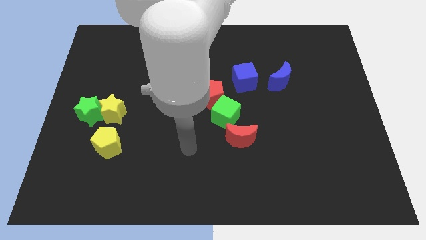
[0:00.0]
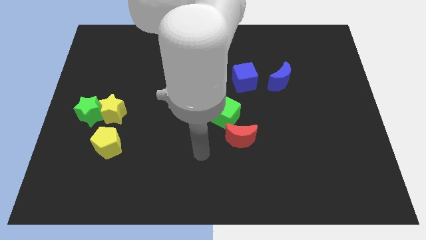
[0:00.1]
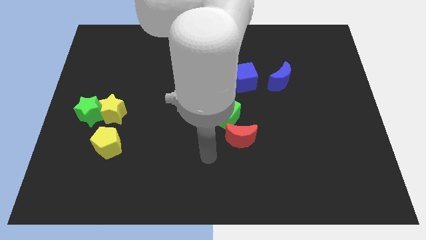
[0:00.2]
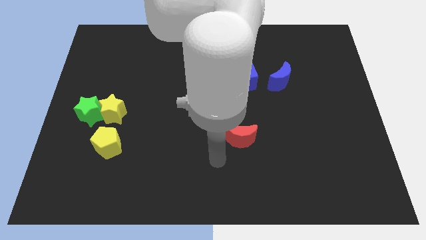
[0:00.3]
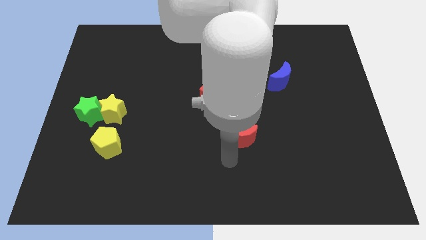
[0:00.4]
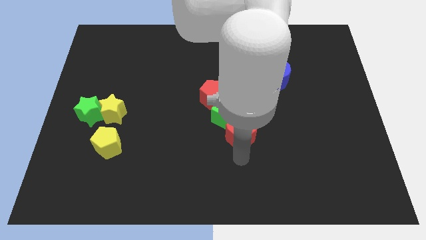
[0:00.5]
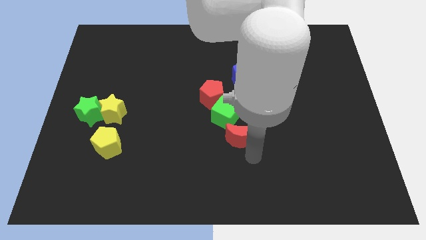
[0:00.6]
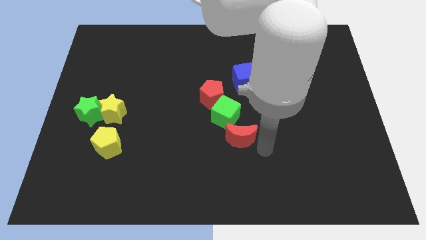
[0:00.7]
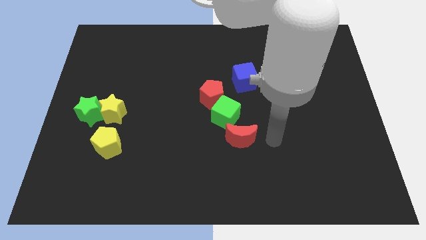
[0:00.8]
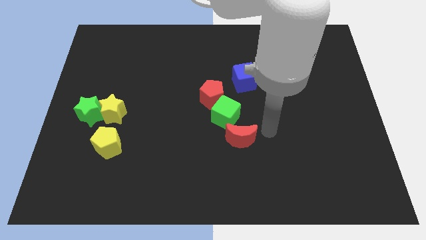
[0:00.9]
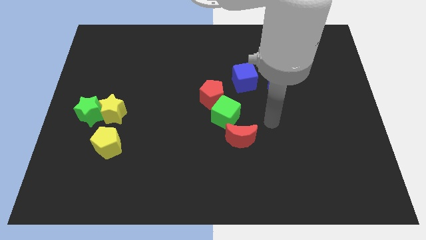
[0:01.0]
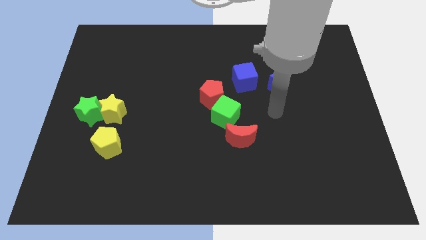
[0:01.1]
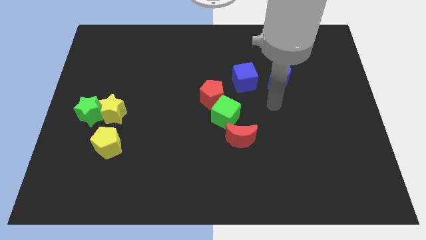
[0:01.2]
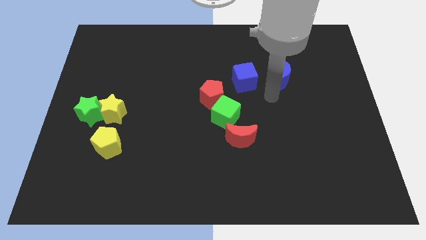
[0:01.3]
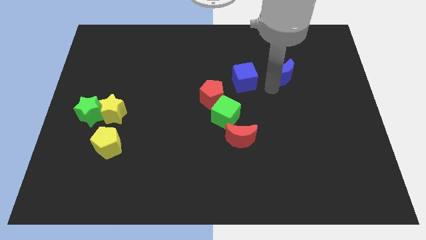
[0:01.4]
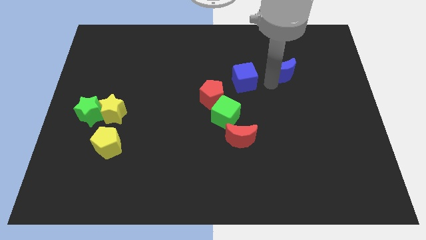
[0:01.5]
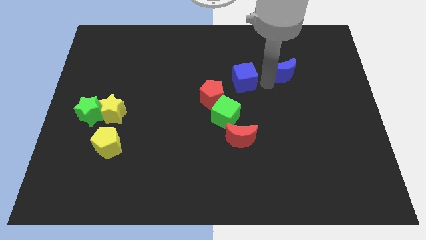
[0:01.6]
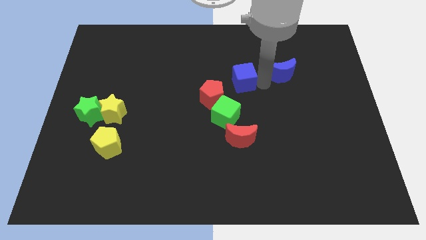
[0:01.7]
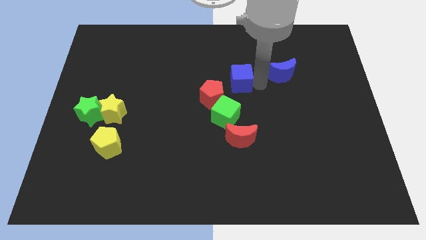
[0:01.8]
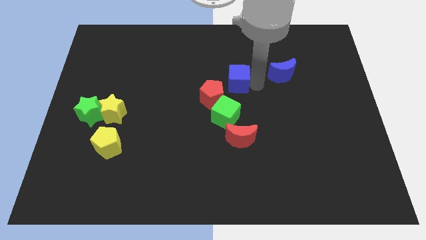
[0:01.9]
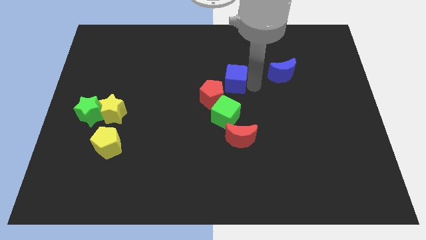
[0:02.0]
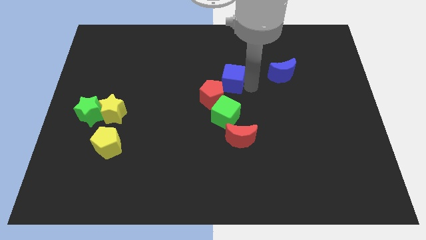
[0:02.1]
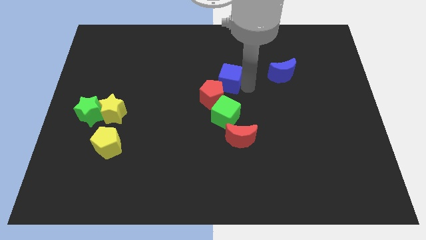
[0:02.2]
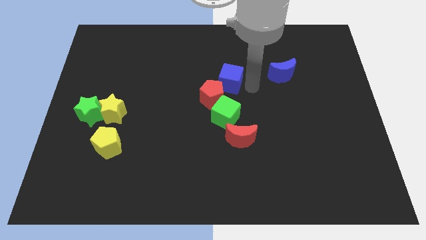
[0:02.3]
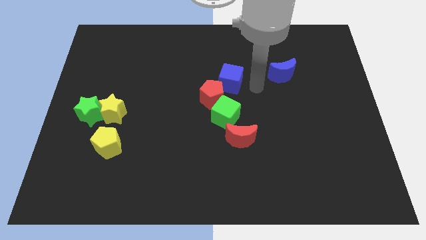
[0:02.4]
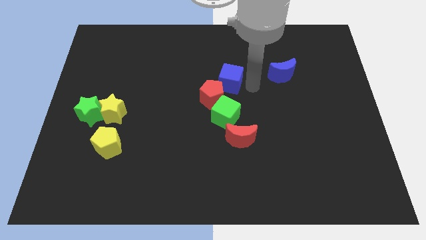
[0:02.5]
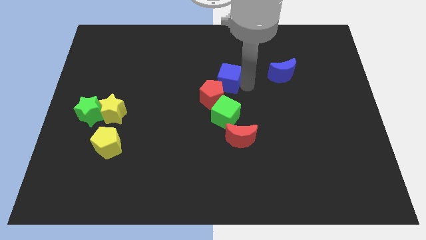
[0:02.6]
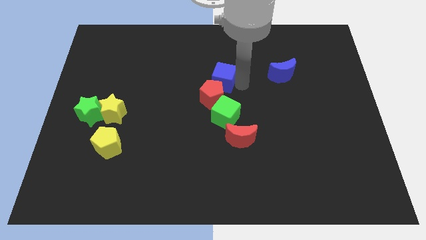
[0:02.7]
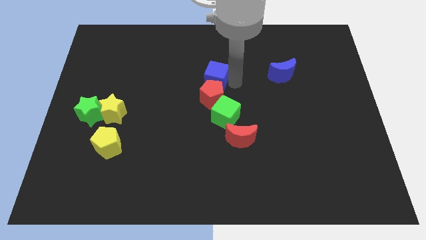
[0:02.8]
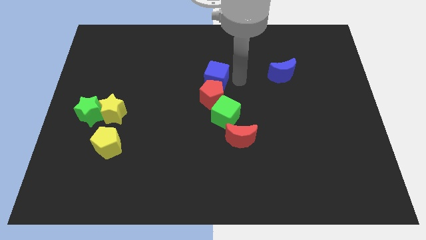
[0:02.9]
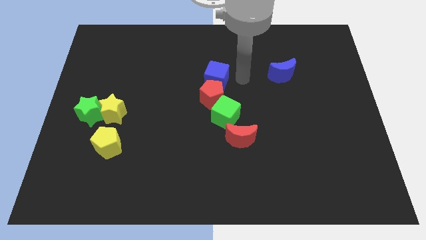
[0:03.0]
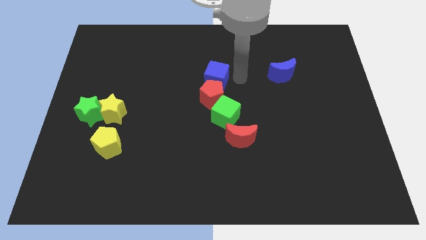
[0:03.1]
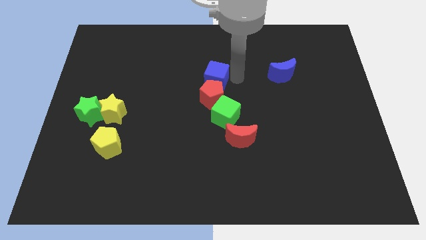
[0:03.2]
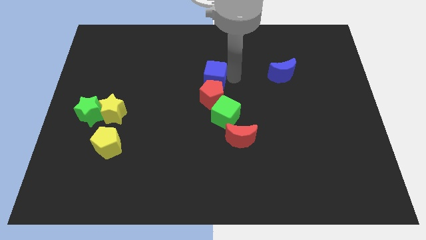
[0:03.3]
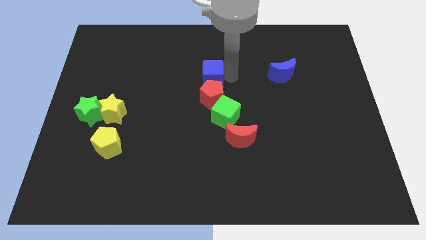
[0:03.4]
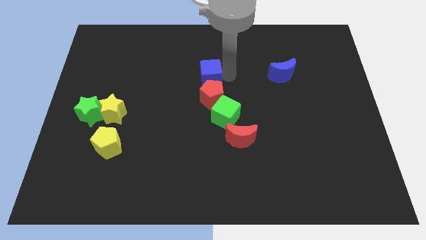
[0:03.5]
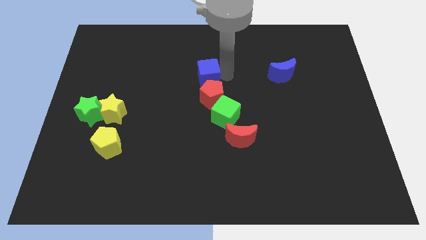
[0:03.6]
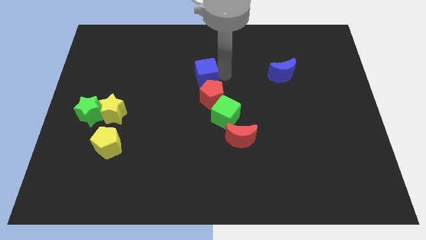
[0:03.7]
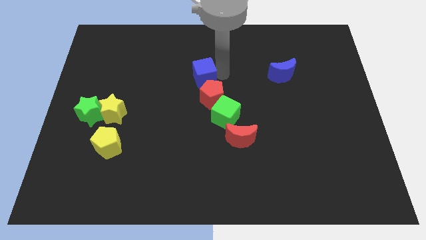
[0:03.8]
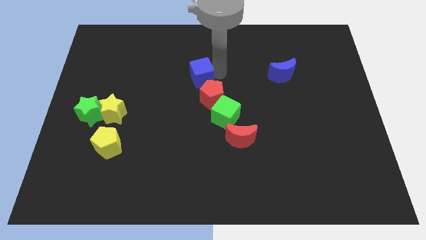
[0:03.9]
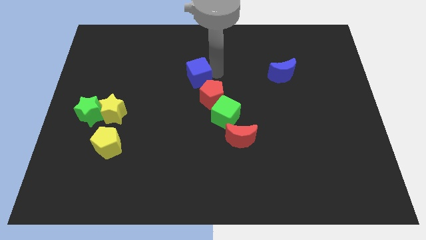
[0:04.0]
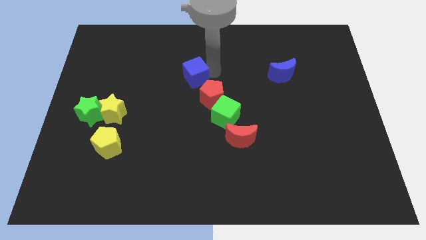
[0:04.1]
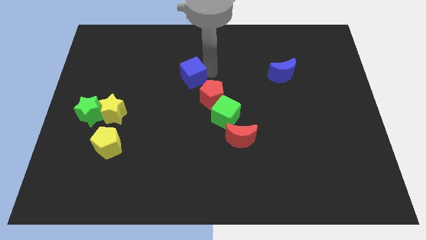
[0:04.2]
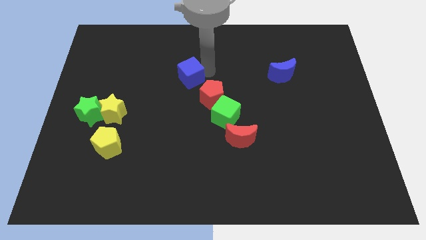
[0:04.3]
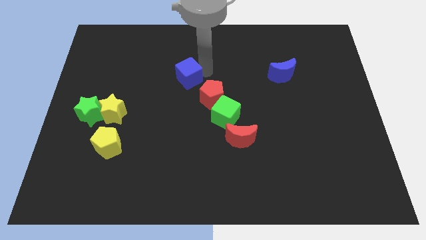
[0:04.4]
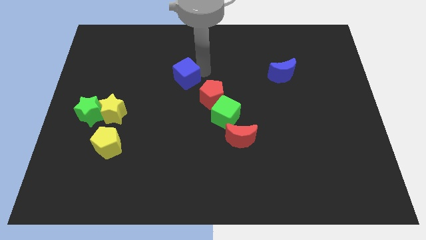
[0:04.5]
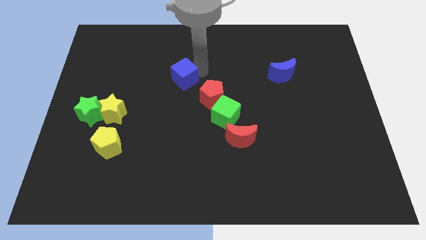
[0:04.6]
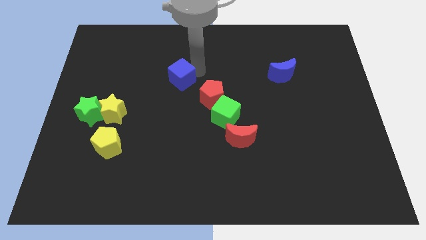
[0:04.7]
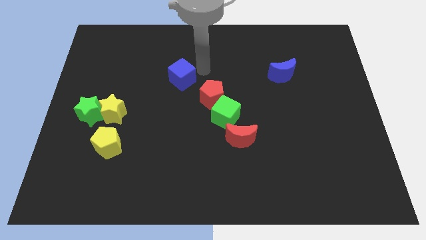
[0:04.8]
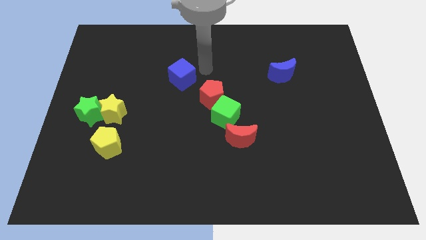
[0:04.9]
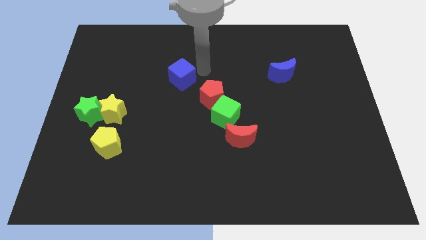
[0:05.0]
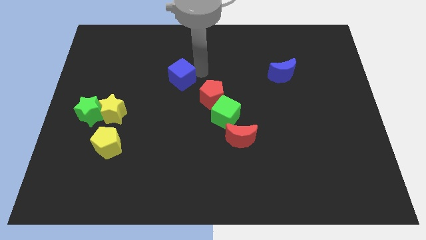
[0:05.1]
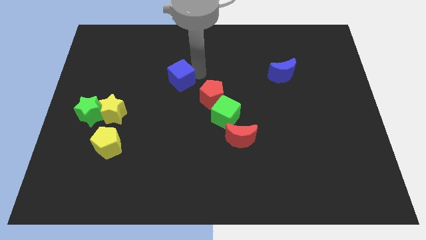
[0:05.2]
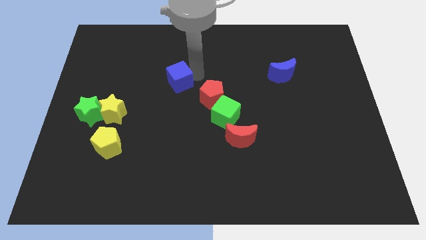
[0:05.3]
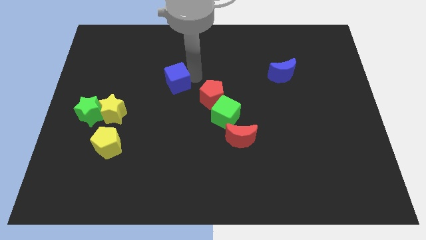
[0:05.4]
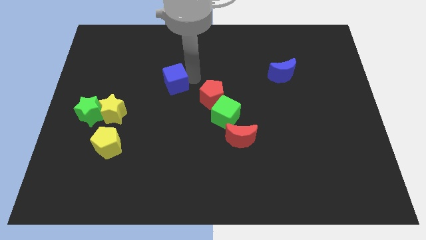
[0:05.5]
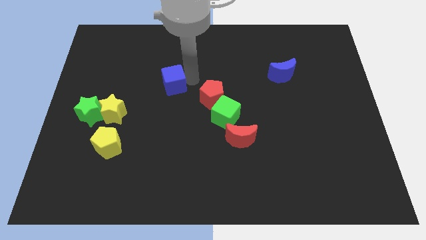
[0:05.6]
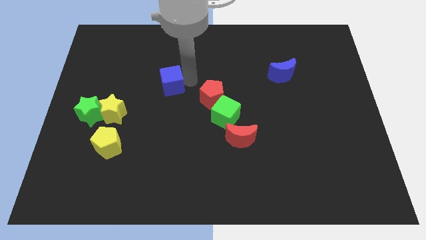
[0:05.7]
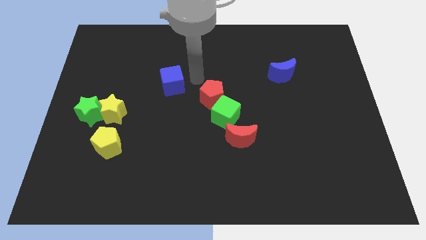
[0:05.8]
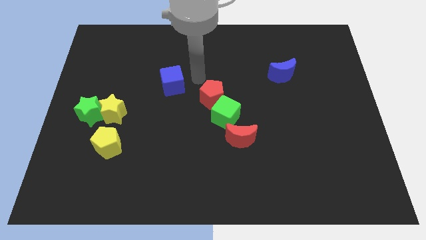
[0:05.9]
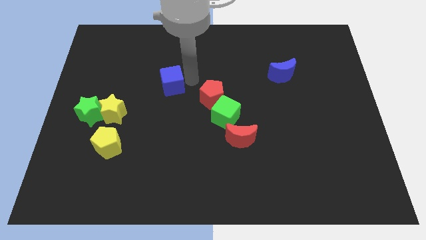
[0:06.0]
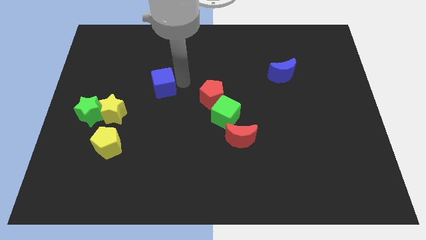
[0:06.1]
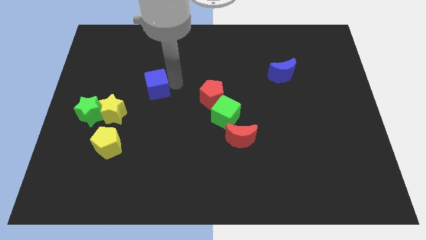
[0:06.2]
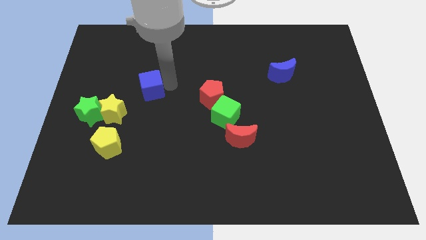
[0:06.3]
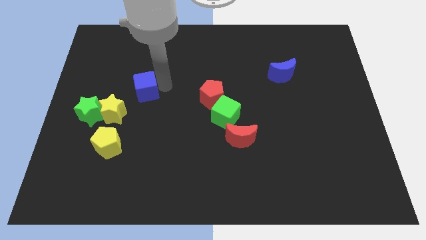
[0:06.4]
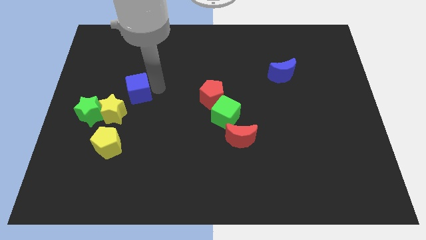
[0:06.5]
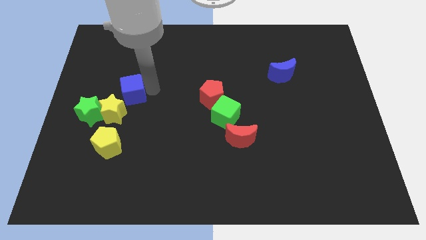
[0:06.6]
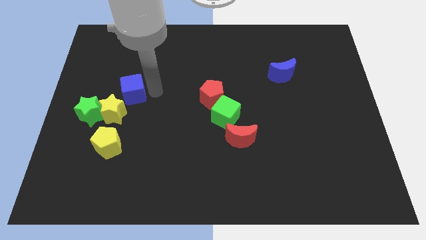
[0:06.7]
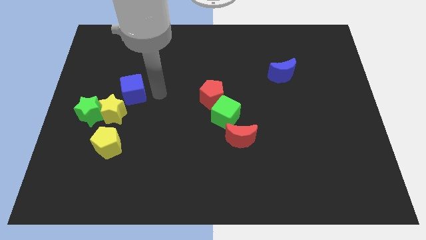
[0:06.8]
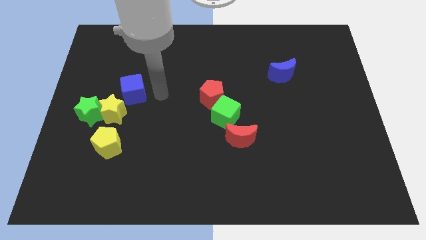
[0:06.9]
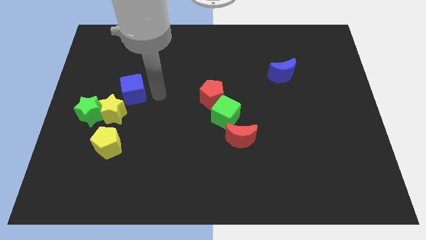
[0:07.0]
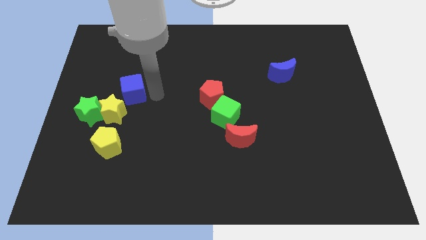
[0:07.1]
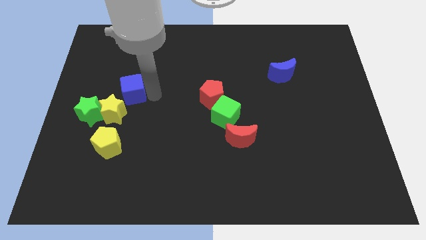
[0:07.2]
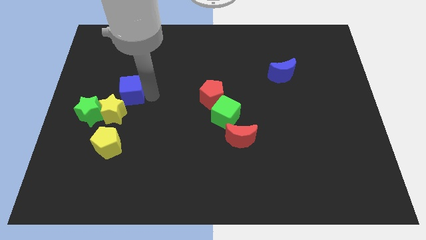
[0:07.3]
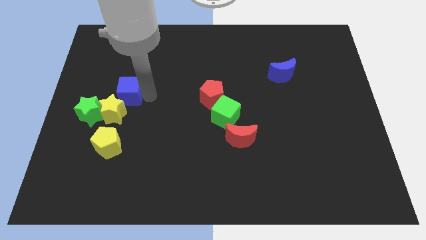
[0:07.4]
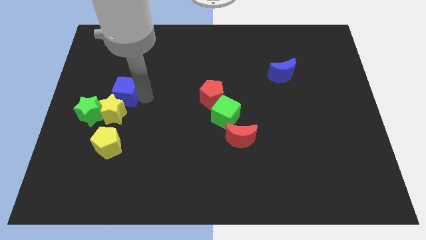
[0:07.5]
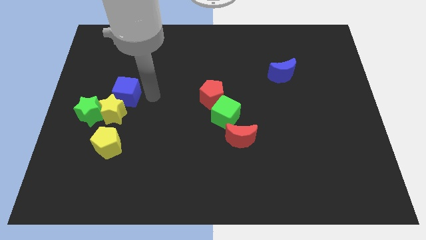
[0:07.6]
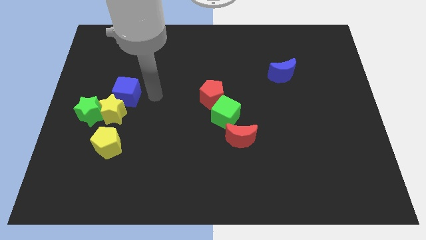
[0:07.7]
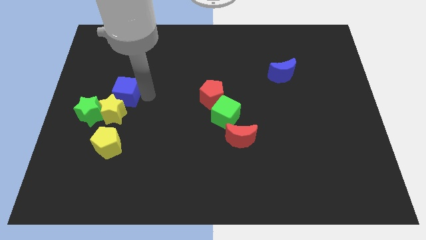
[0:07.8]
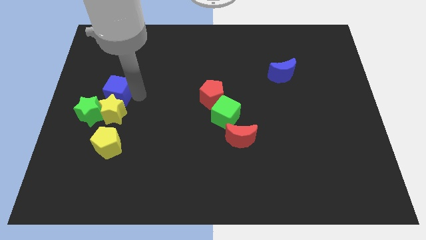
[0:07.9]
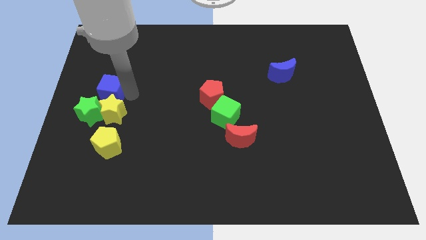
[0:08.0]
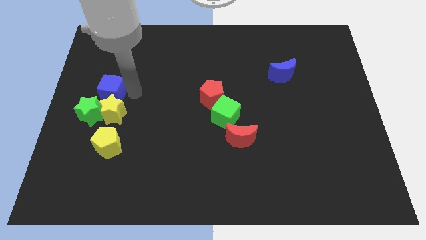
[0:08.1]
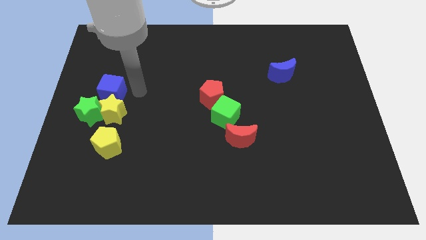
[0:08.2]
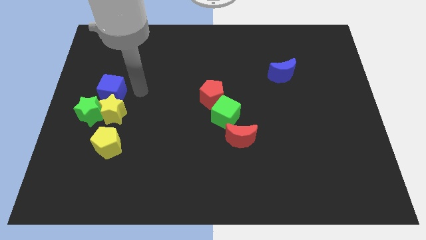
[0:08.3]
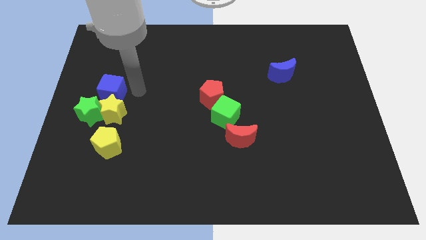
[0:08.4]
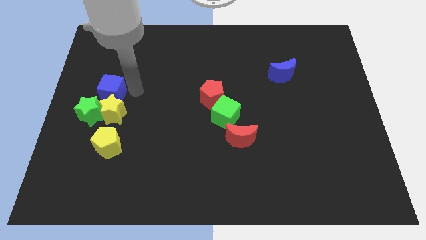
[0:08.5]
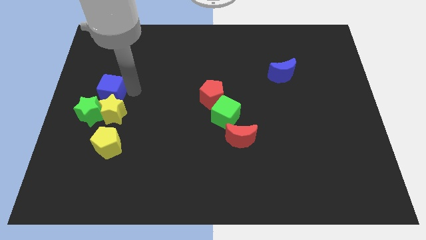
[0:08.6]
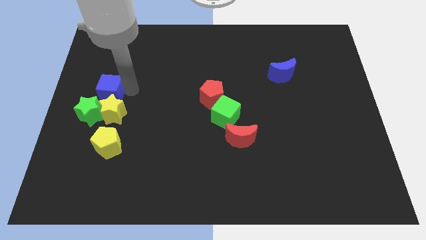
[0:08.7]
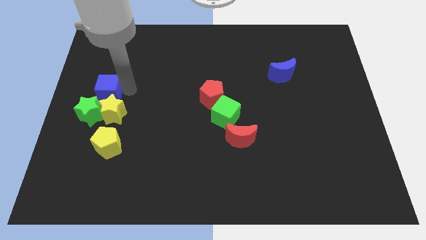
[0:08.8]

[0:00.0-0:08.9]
push the blue cube to the center left
